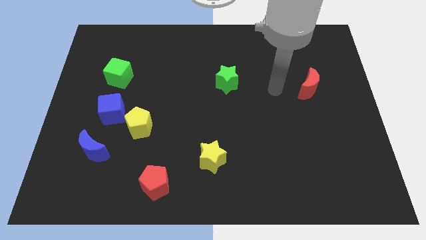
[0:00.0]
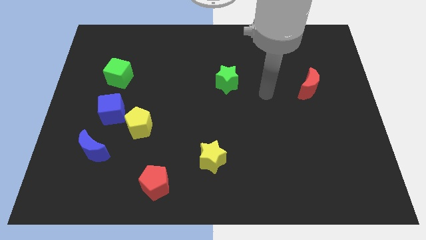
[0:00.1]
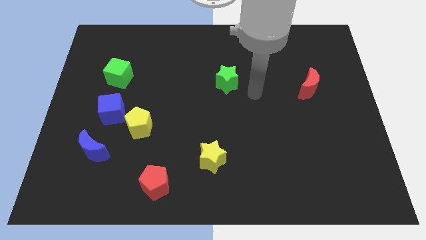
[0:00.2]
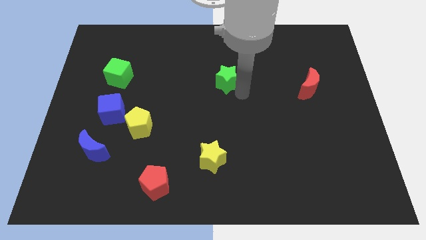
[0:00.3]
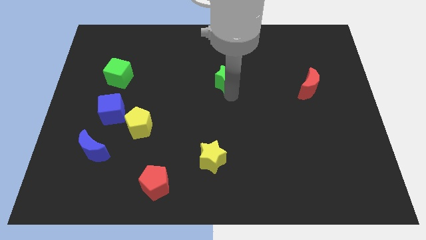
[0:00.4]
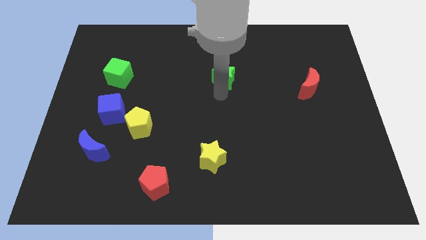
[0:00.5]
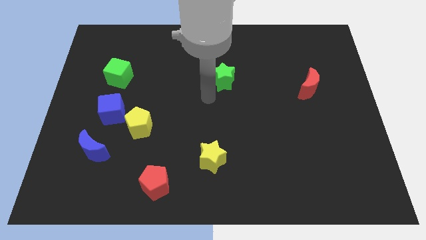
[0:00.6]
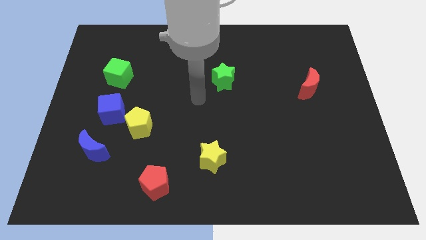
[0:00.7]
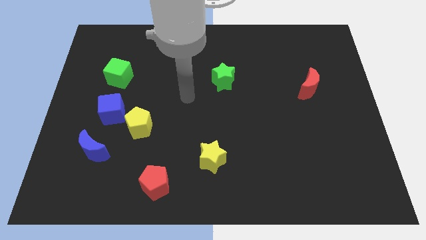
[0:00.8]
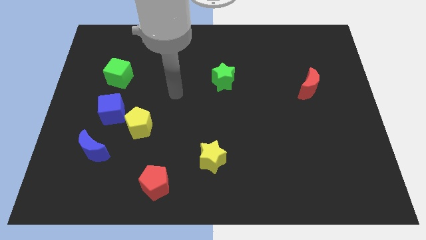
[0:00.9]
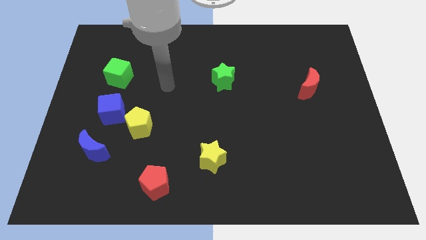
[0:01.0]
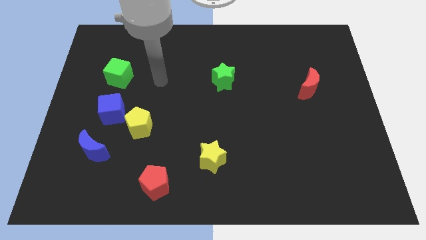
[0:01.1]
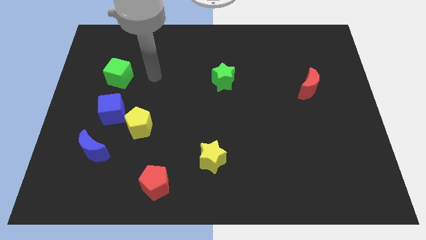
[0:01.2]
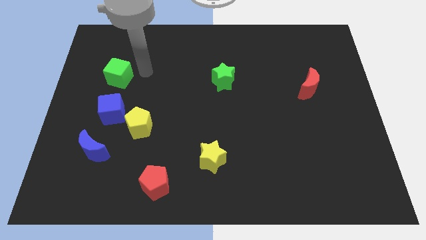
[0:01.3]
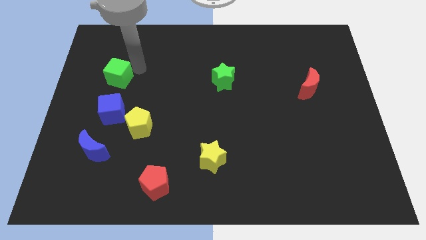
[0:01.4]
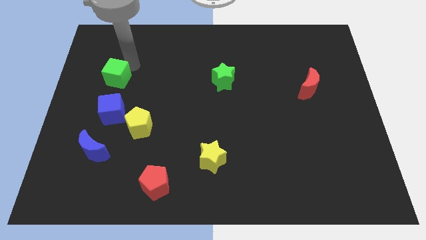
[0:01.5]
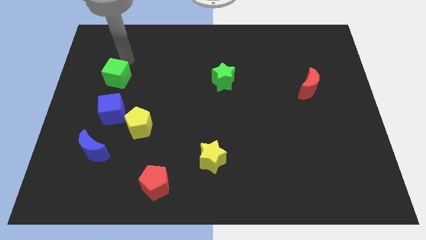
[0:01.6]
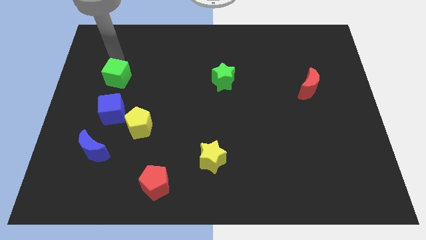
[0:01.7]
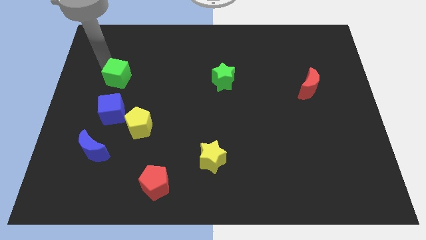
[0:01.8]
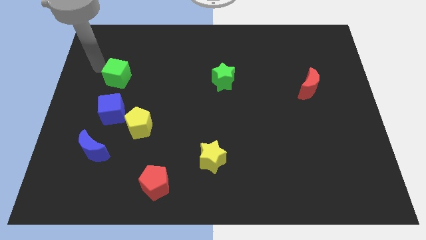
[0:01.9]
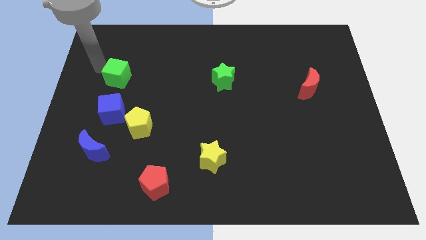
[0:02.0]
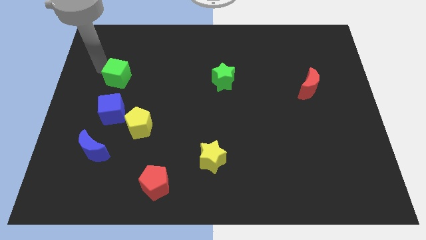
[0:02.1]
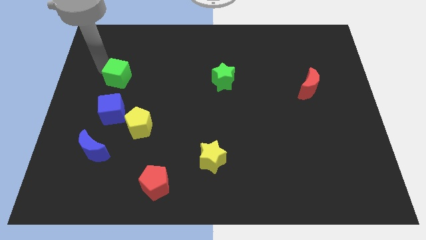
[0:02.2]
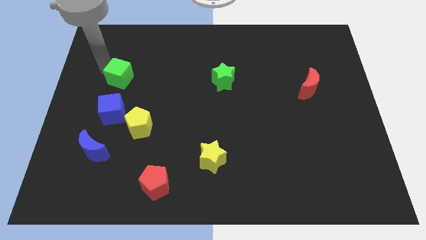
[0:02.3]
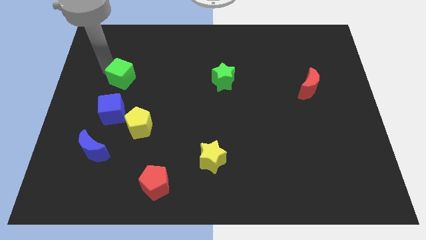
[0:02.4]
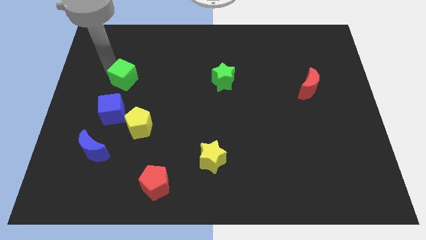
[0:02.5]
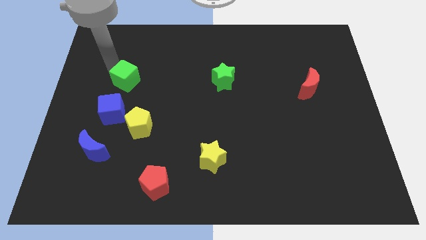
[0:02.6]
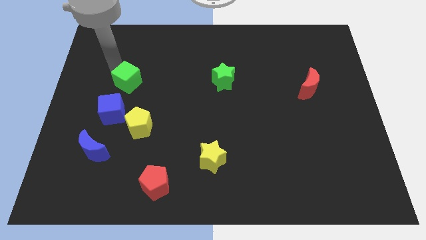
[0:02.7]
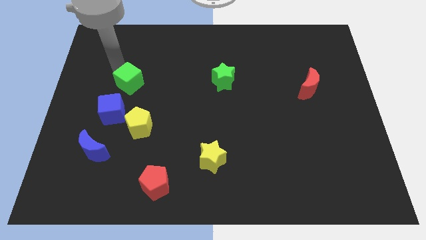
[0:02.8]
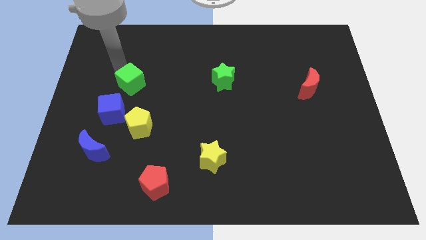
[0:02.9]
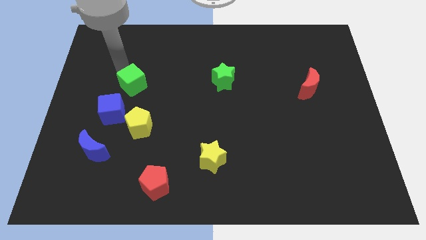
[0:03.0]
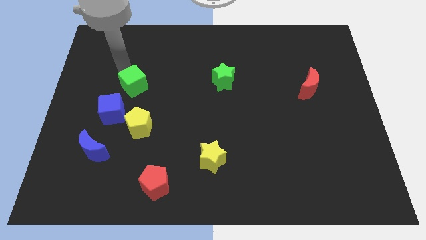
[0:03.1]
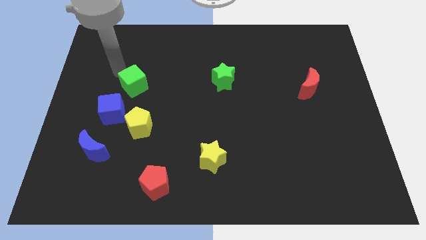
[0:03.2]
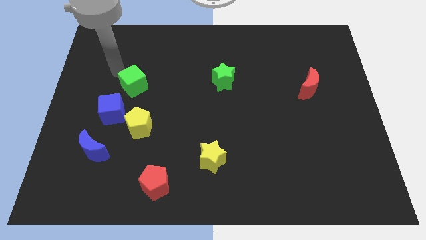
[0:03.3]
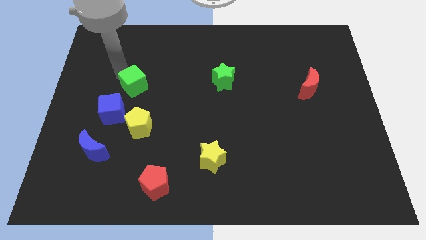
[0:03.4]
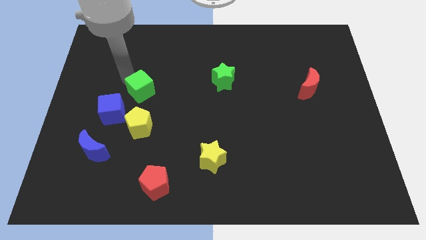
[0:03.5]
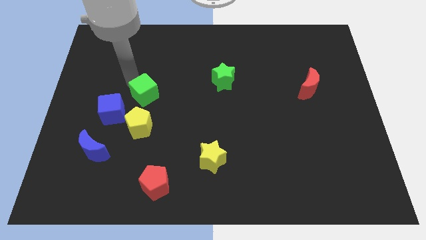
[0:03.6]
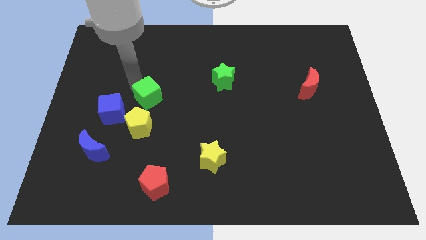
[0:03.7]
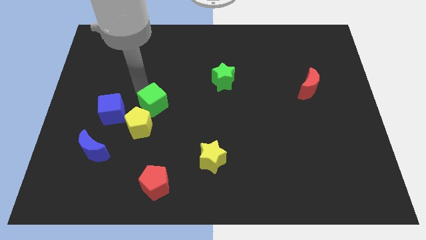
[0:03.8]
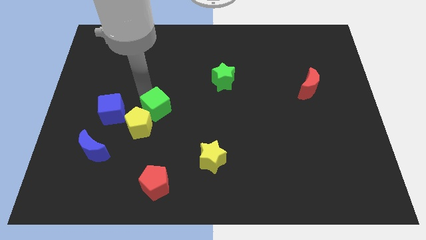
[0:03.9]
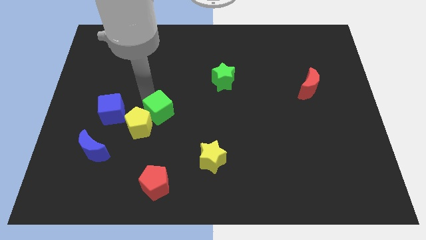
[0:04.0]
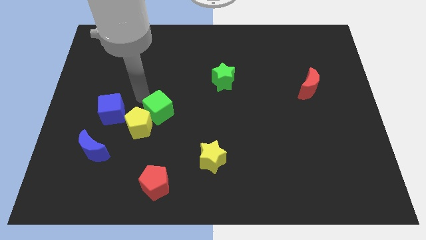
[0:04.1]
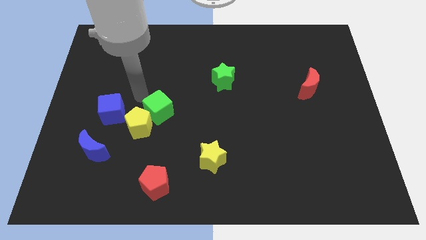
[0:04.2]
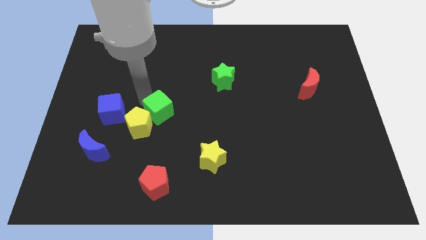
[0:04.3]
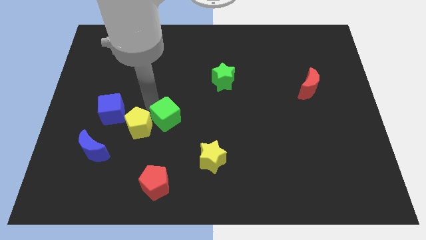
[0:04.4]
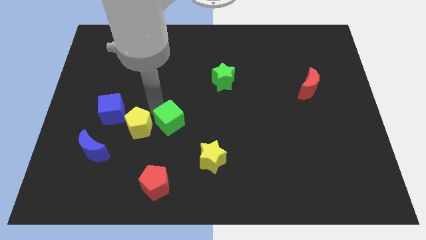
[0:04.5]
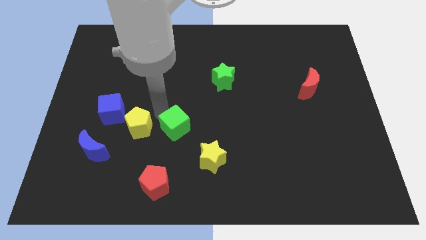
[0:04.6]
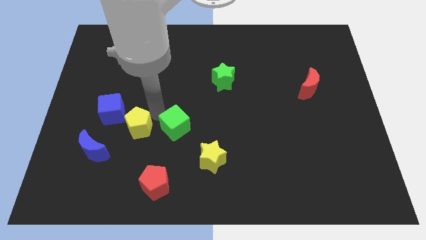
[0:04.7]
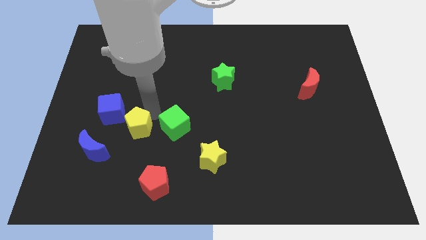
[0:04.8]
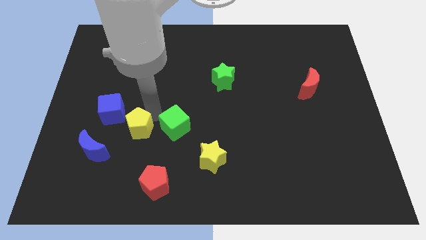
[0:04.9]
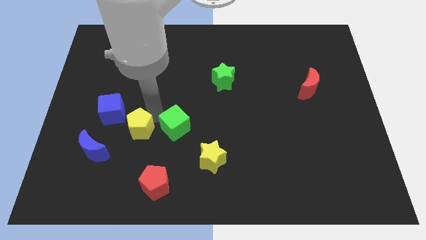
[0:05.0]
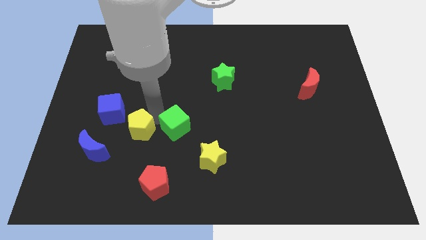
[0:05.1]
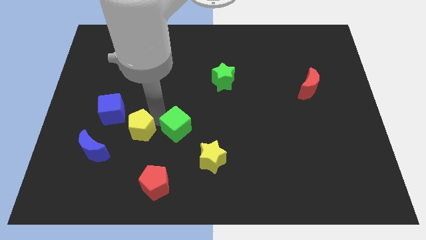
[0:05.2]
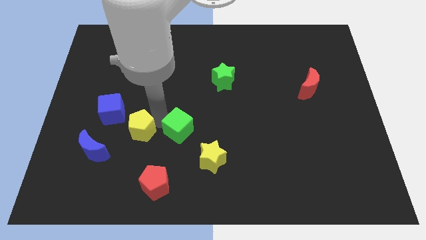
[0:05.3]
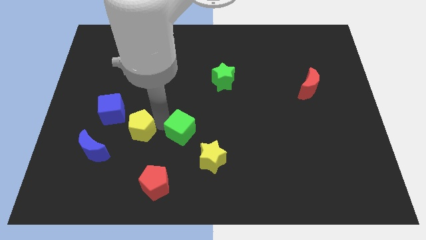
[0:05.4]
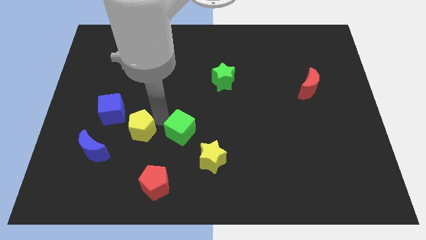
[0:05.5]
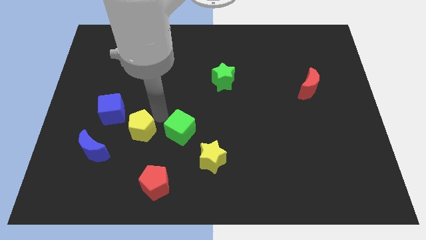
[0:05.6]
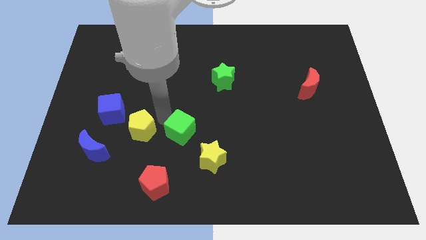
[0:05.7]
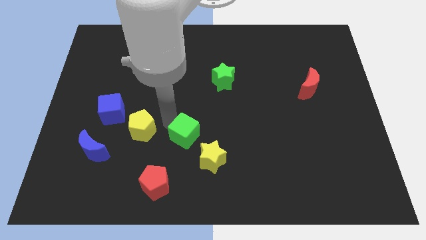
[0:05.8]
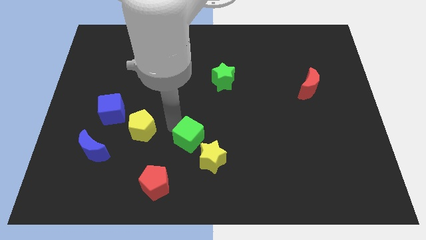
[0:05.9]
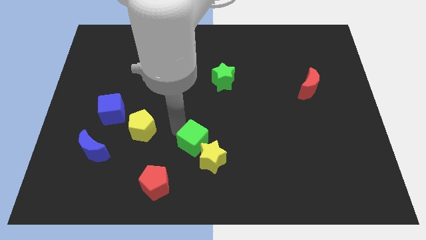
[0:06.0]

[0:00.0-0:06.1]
move the green cube towards the yellow star

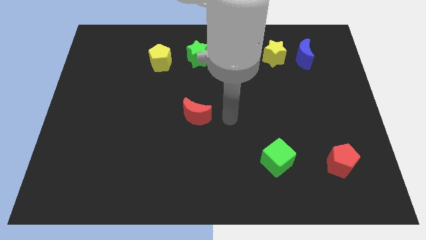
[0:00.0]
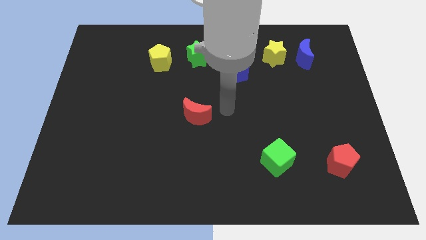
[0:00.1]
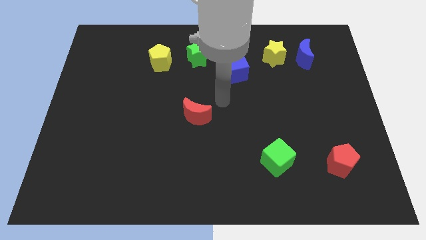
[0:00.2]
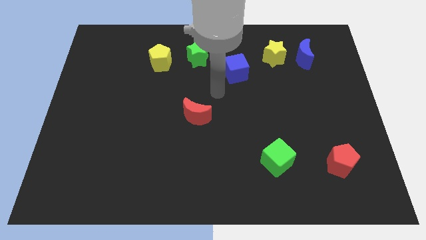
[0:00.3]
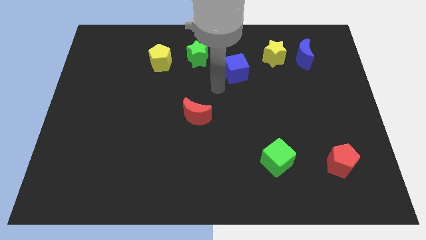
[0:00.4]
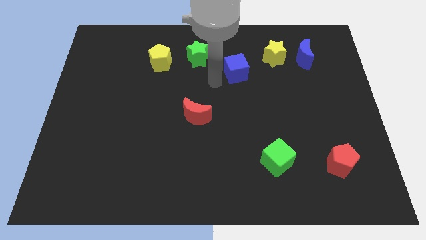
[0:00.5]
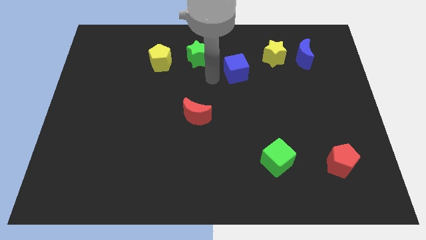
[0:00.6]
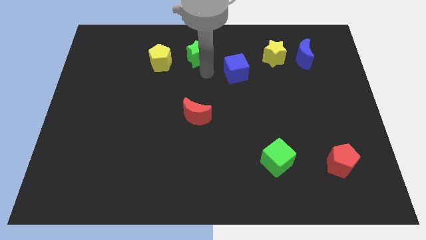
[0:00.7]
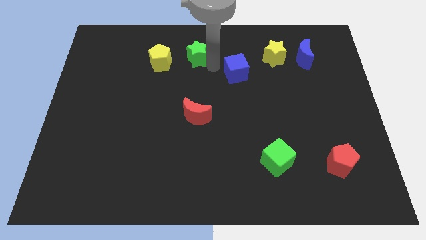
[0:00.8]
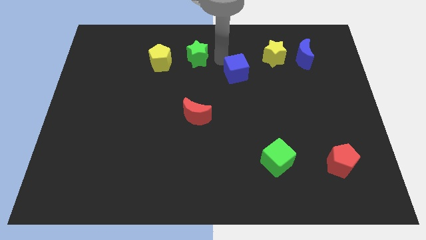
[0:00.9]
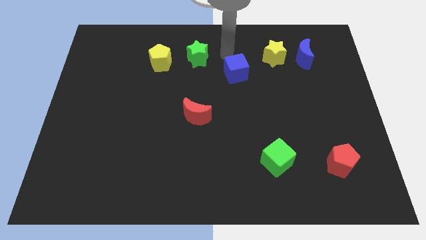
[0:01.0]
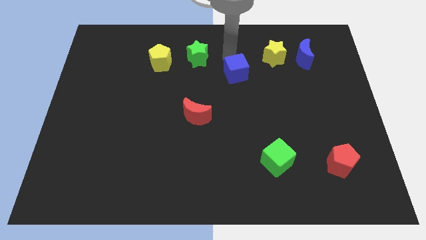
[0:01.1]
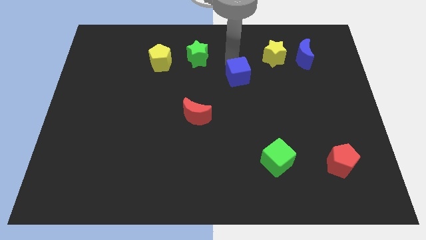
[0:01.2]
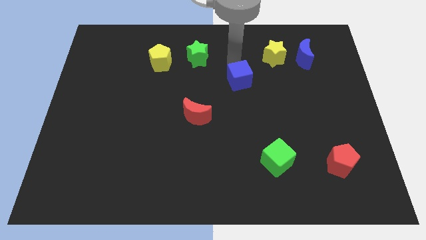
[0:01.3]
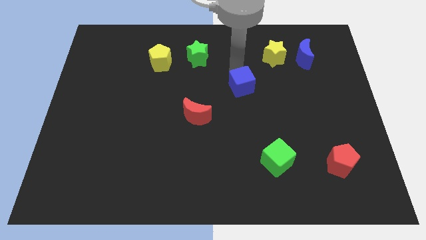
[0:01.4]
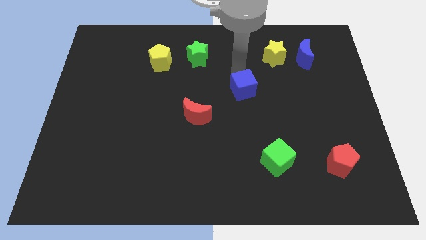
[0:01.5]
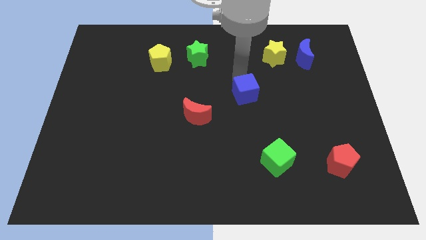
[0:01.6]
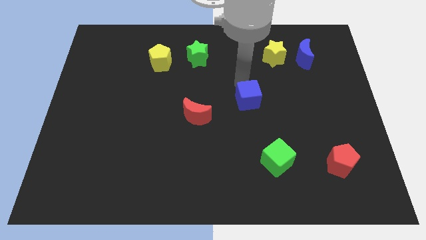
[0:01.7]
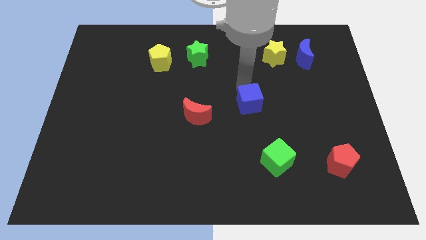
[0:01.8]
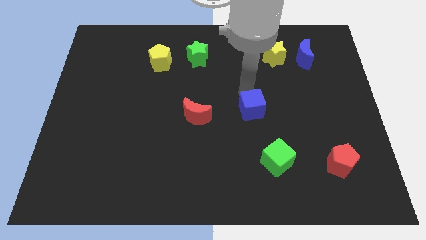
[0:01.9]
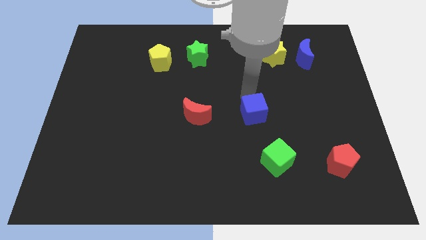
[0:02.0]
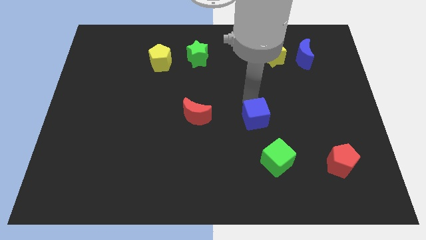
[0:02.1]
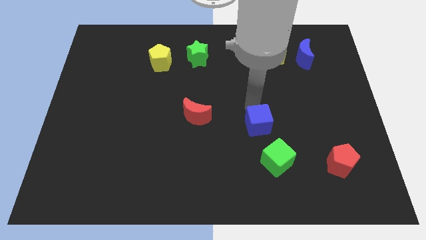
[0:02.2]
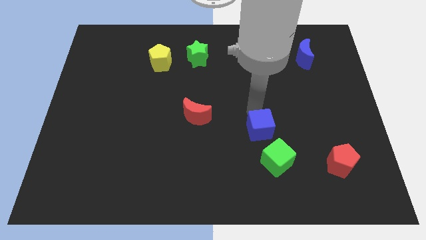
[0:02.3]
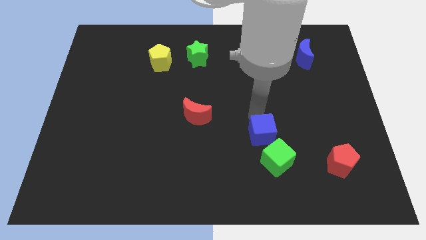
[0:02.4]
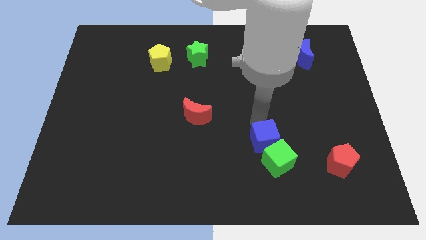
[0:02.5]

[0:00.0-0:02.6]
push the blue cube close to the green cube
